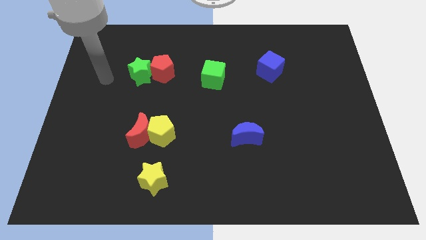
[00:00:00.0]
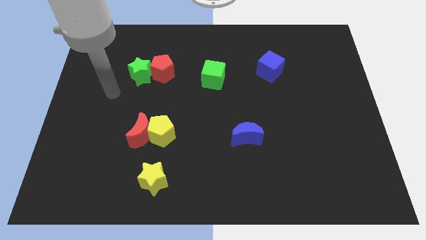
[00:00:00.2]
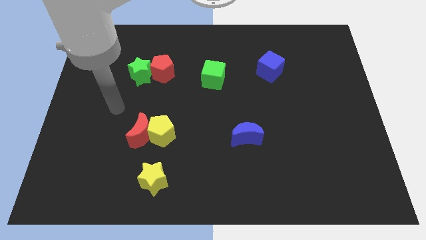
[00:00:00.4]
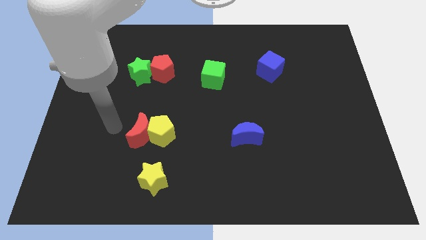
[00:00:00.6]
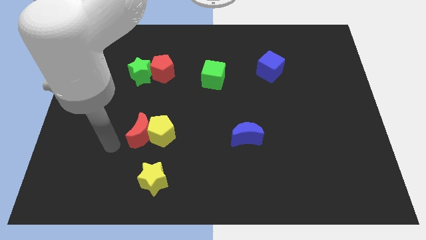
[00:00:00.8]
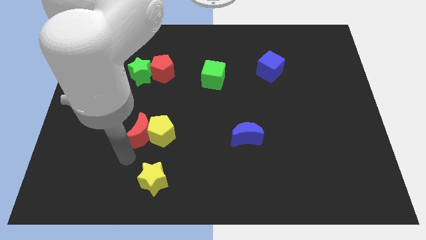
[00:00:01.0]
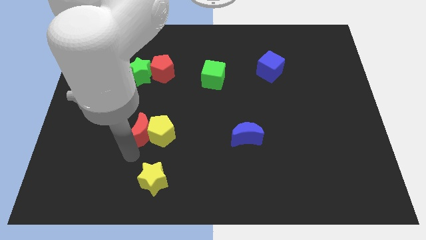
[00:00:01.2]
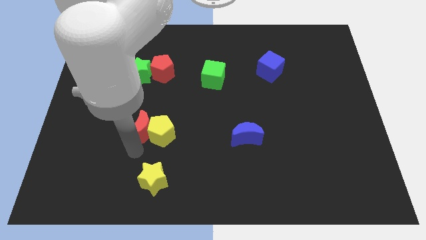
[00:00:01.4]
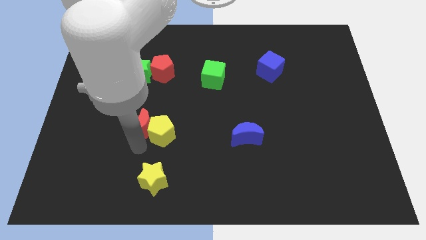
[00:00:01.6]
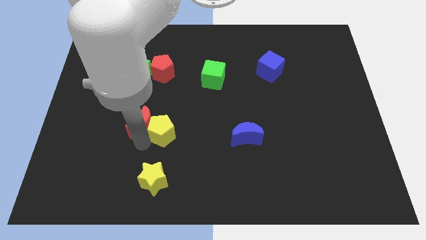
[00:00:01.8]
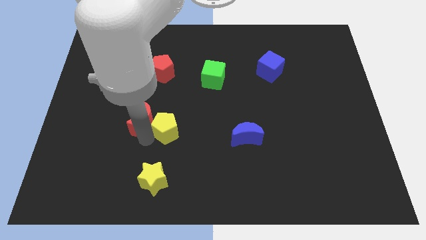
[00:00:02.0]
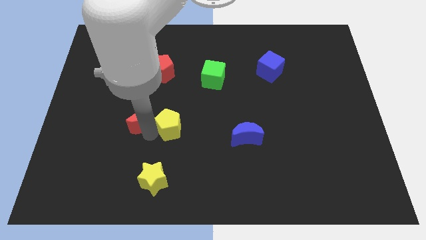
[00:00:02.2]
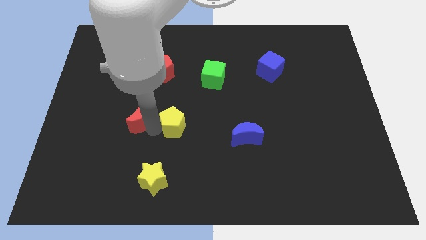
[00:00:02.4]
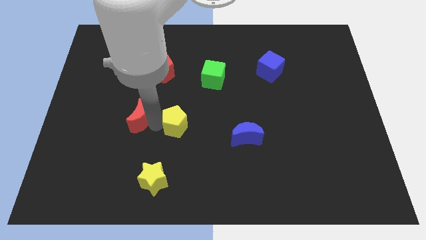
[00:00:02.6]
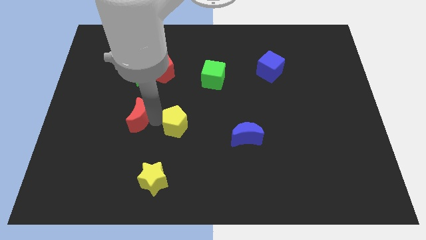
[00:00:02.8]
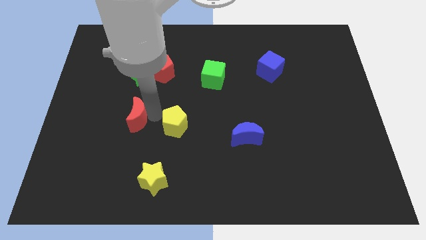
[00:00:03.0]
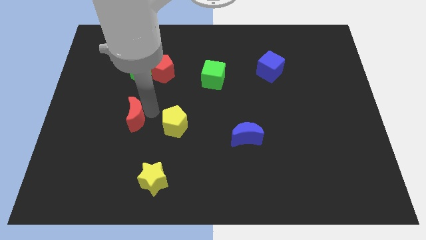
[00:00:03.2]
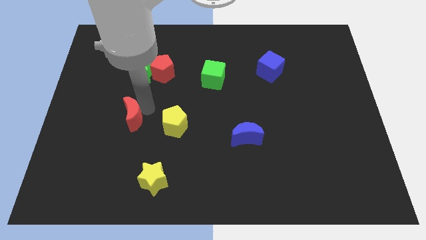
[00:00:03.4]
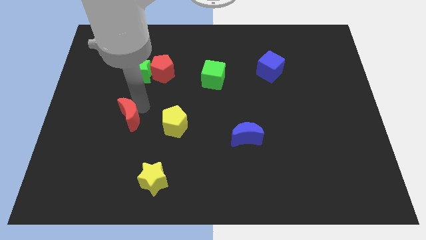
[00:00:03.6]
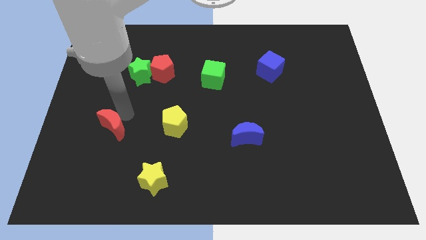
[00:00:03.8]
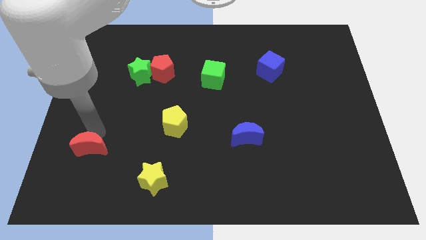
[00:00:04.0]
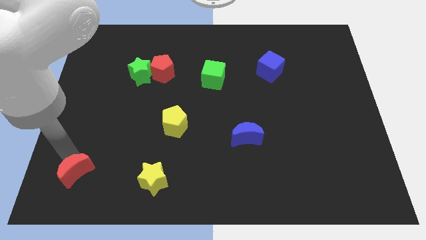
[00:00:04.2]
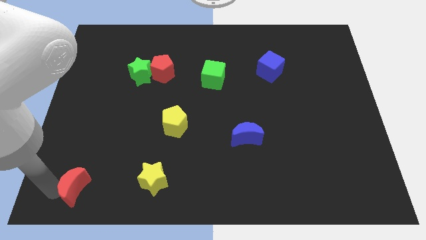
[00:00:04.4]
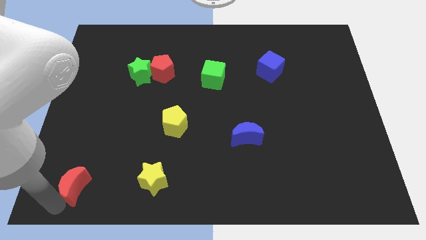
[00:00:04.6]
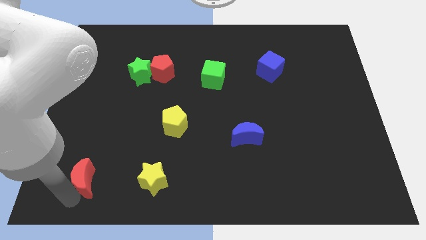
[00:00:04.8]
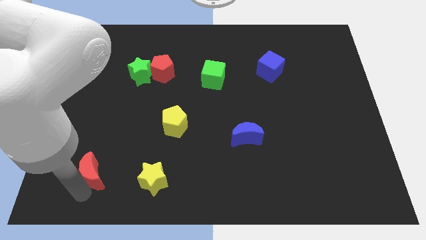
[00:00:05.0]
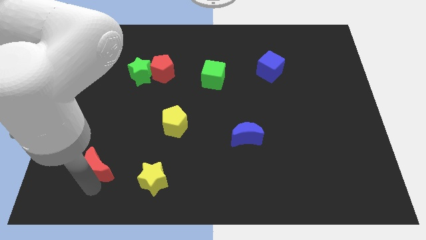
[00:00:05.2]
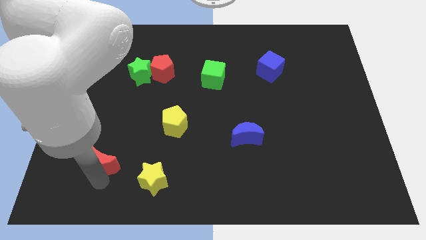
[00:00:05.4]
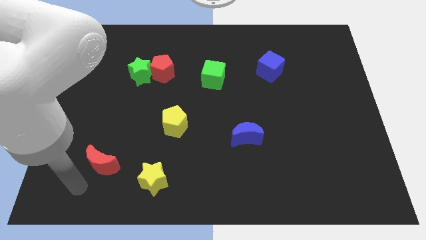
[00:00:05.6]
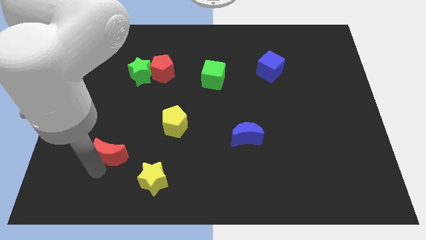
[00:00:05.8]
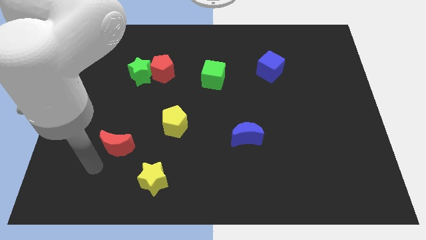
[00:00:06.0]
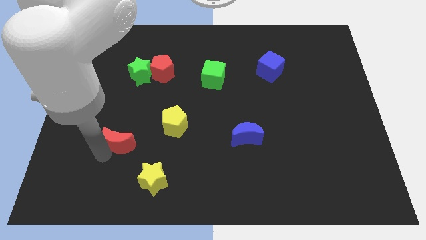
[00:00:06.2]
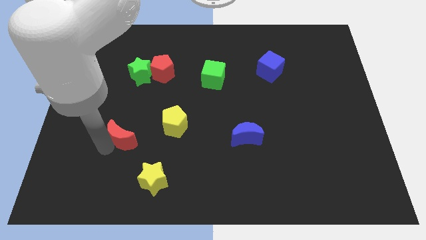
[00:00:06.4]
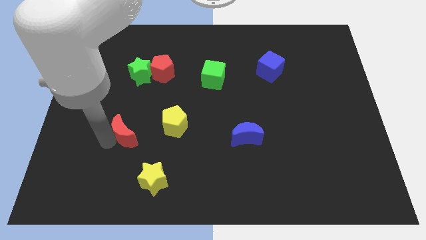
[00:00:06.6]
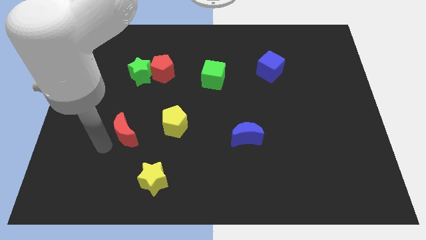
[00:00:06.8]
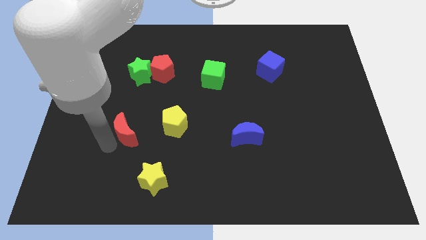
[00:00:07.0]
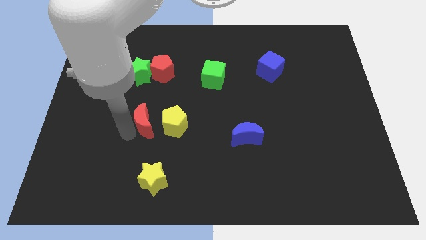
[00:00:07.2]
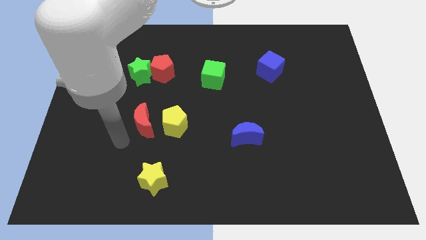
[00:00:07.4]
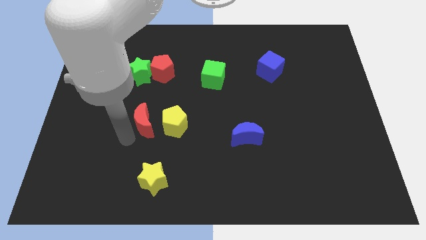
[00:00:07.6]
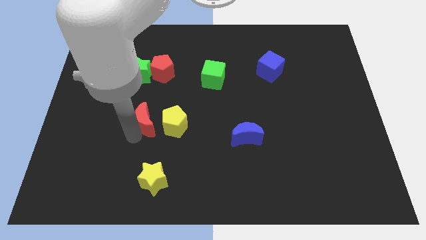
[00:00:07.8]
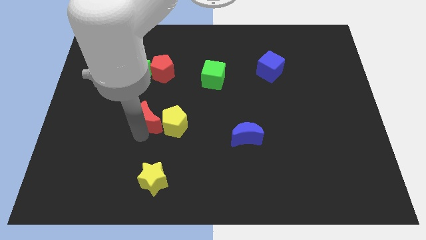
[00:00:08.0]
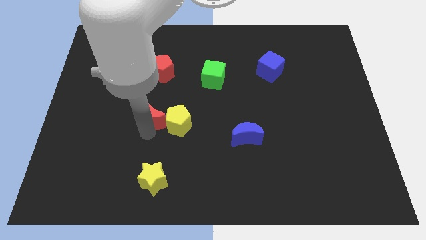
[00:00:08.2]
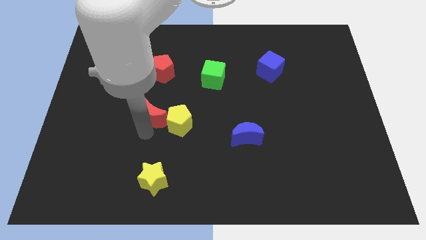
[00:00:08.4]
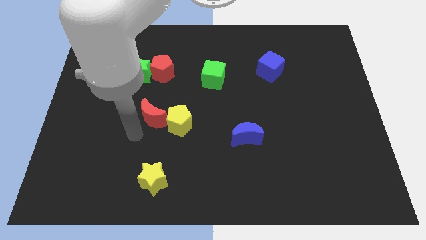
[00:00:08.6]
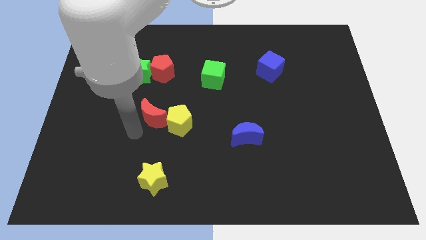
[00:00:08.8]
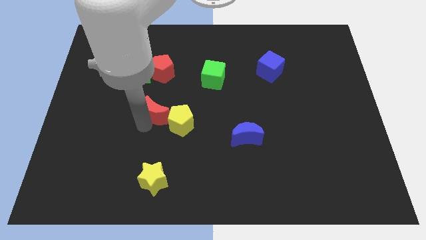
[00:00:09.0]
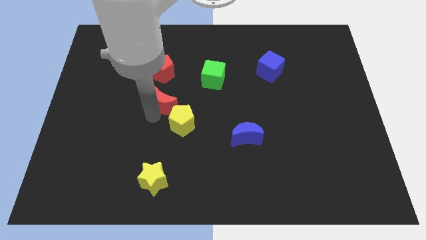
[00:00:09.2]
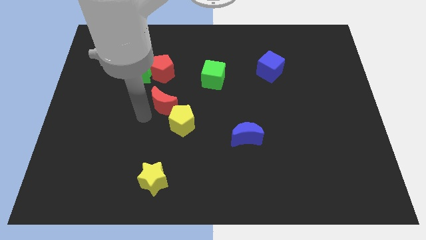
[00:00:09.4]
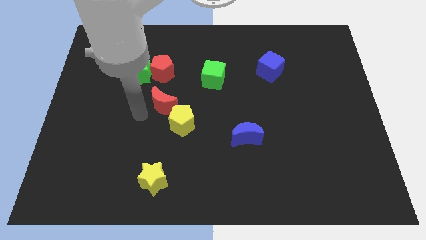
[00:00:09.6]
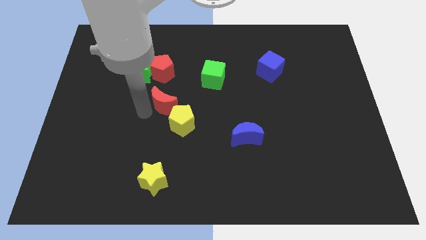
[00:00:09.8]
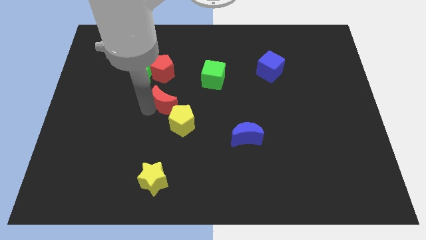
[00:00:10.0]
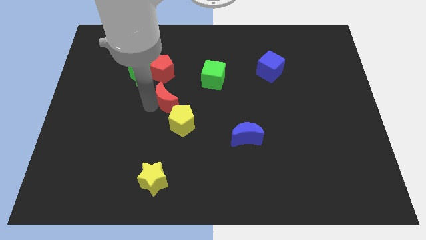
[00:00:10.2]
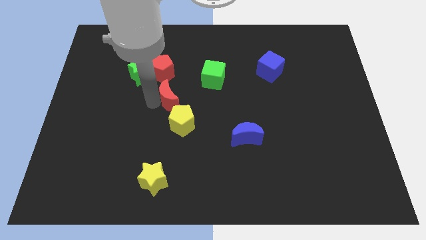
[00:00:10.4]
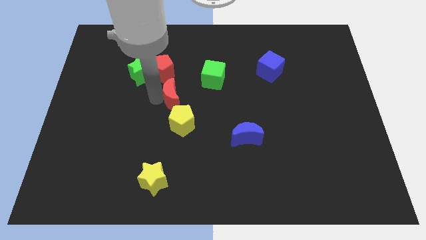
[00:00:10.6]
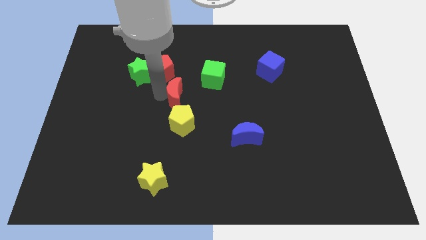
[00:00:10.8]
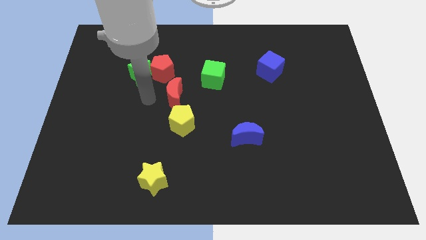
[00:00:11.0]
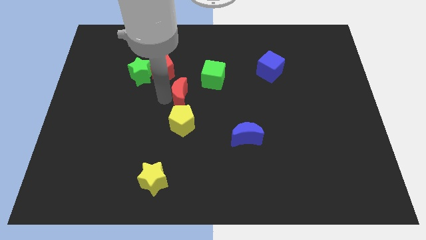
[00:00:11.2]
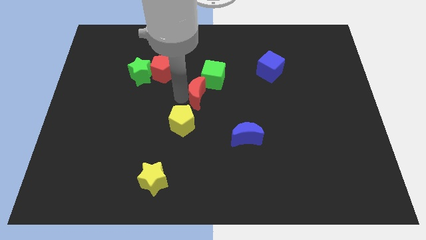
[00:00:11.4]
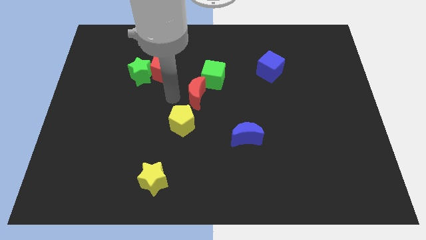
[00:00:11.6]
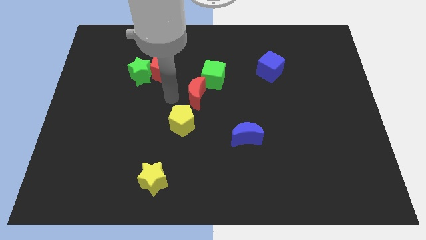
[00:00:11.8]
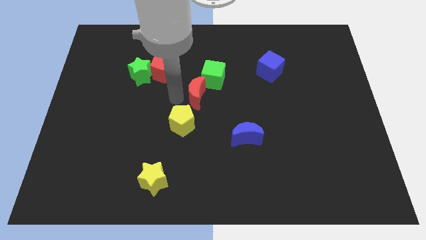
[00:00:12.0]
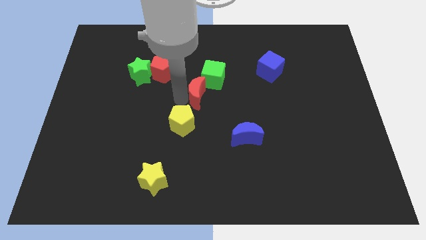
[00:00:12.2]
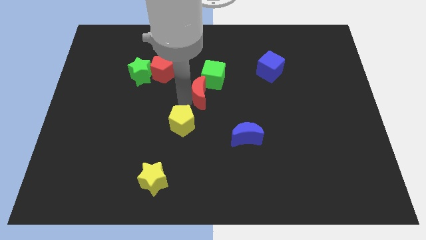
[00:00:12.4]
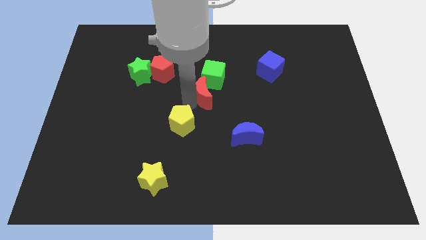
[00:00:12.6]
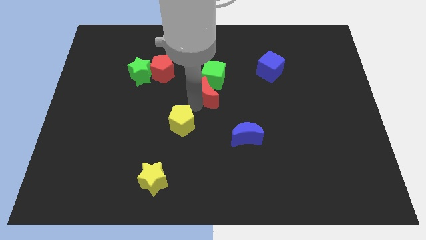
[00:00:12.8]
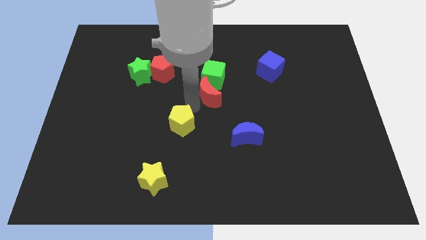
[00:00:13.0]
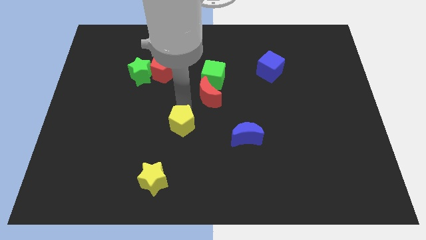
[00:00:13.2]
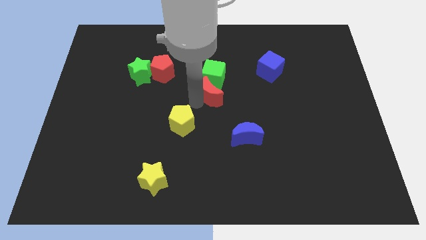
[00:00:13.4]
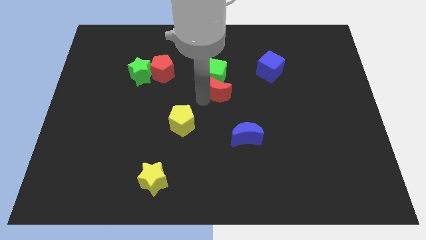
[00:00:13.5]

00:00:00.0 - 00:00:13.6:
move the red moon upwards and right diagonally

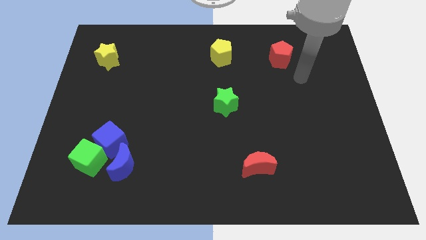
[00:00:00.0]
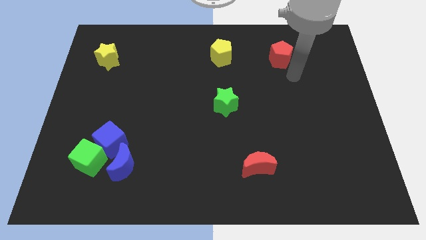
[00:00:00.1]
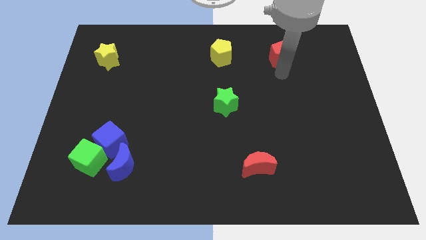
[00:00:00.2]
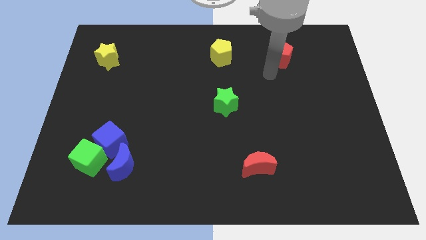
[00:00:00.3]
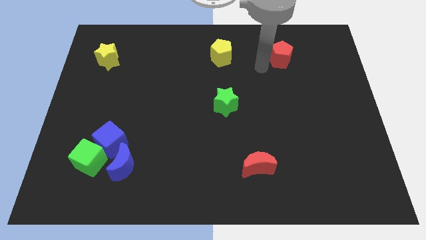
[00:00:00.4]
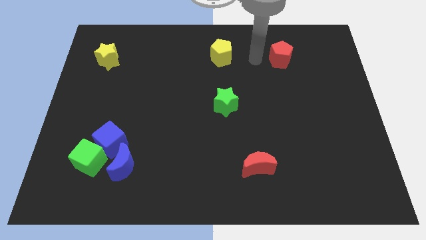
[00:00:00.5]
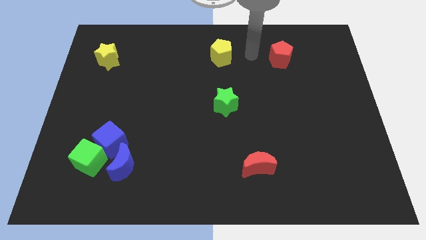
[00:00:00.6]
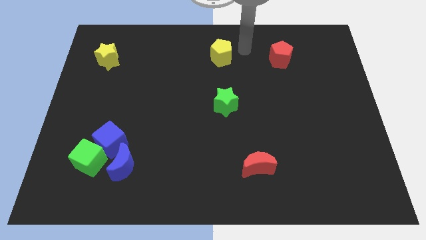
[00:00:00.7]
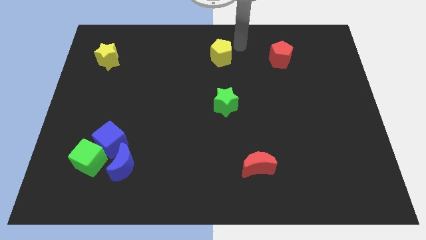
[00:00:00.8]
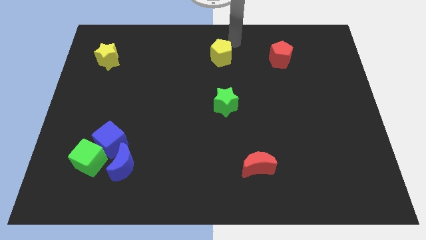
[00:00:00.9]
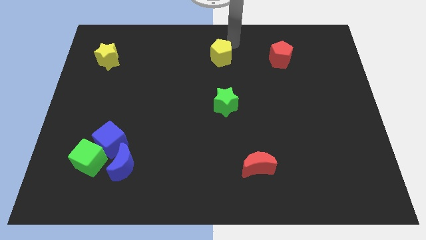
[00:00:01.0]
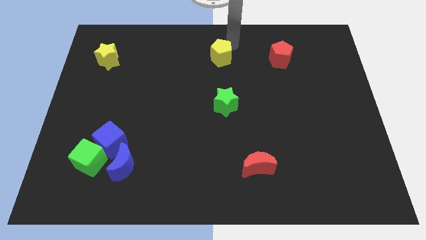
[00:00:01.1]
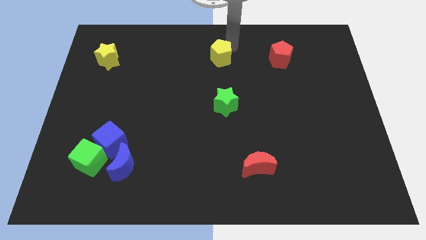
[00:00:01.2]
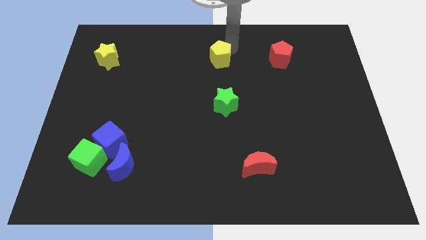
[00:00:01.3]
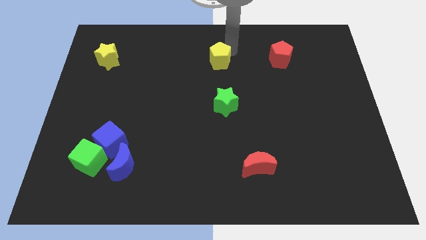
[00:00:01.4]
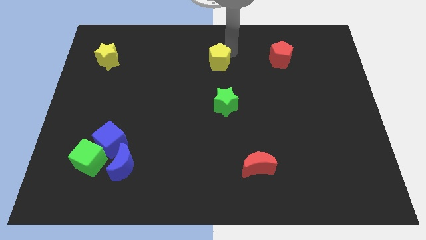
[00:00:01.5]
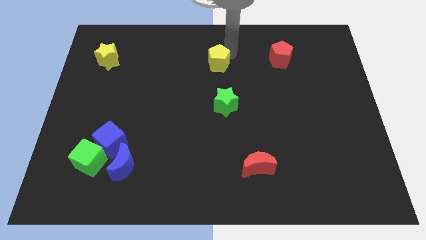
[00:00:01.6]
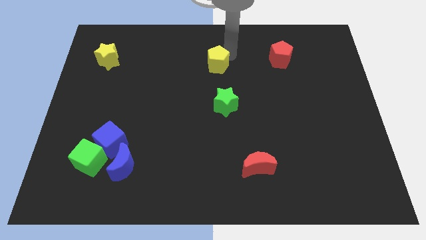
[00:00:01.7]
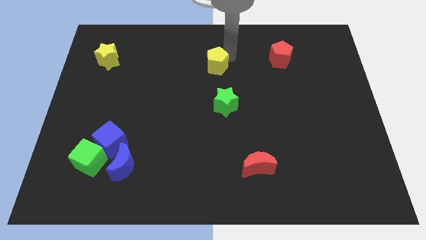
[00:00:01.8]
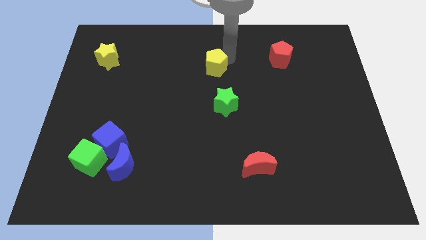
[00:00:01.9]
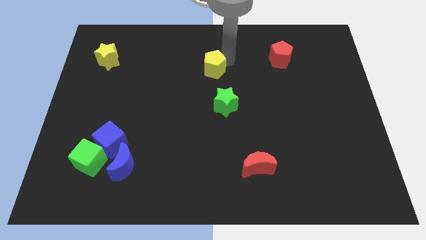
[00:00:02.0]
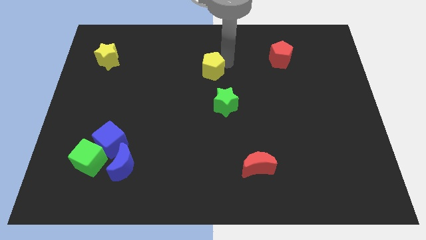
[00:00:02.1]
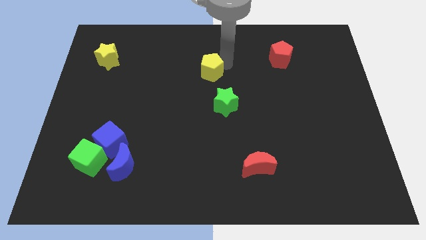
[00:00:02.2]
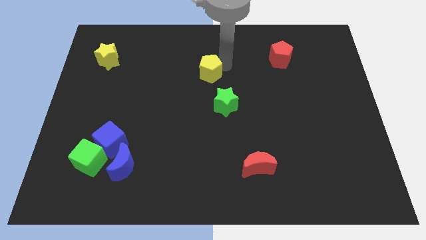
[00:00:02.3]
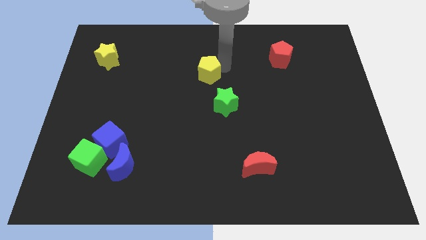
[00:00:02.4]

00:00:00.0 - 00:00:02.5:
push the yellow pentagon slightly downwards and to the left diagonally
